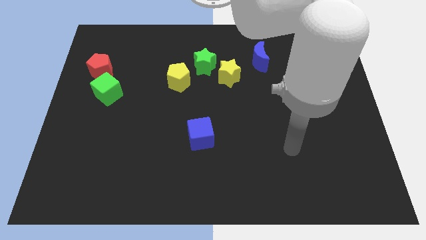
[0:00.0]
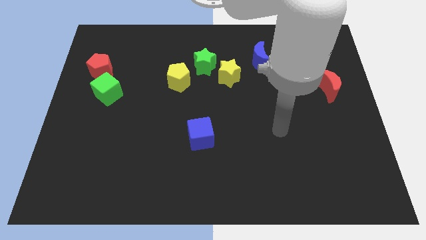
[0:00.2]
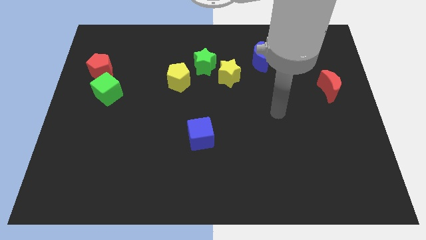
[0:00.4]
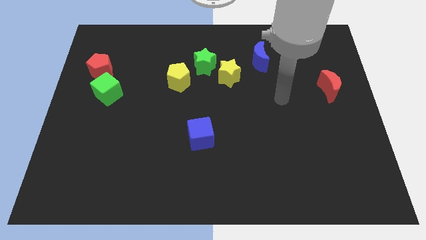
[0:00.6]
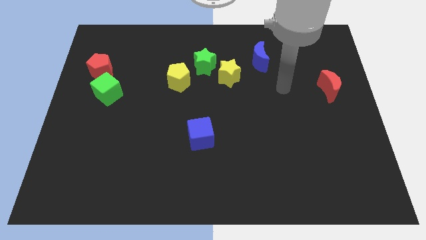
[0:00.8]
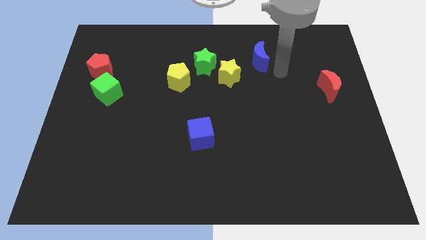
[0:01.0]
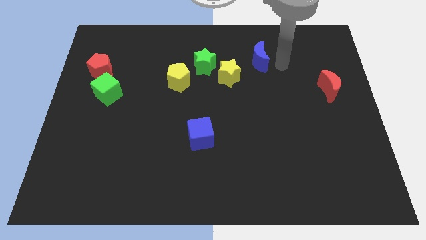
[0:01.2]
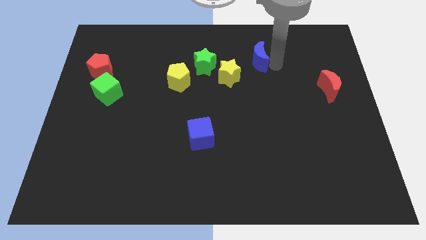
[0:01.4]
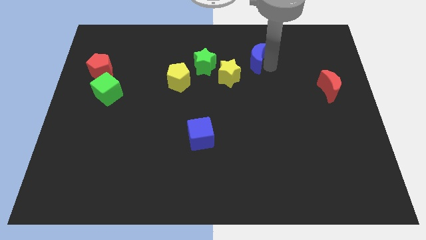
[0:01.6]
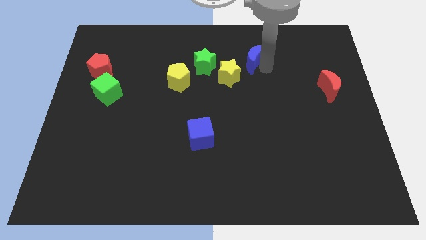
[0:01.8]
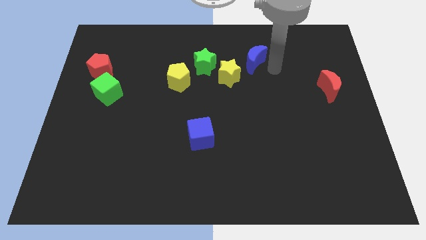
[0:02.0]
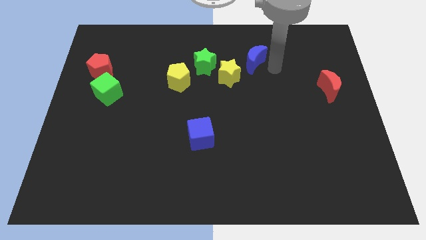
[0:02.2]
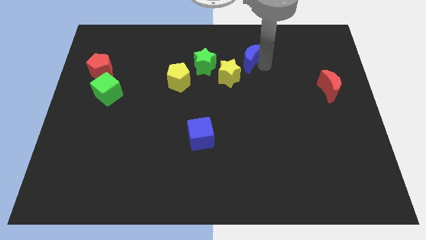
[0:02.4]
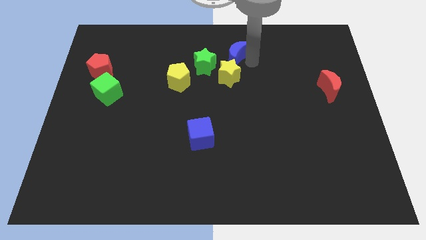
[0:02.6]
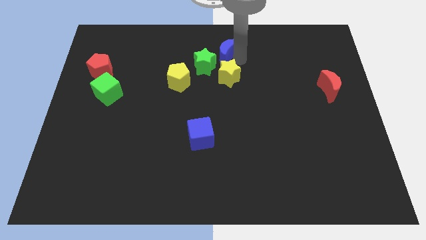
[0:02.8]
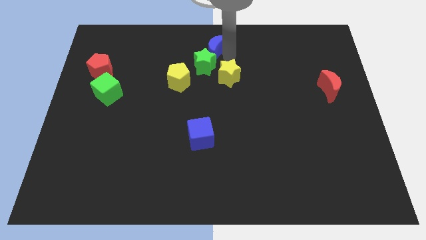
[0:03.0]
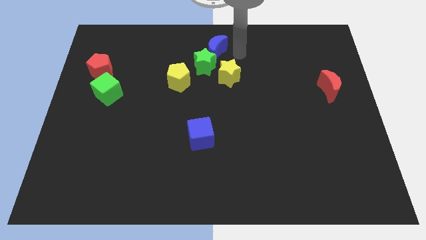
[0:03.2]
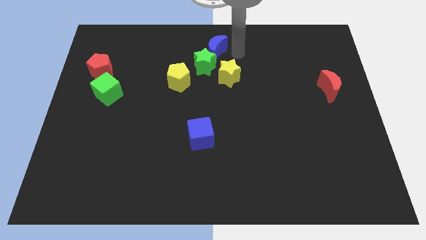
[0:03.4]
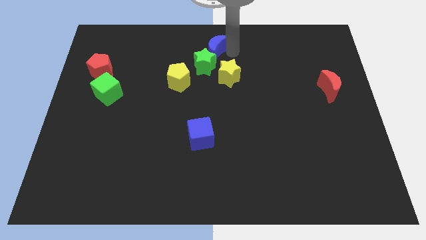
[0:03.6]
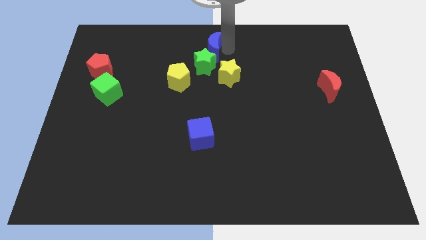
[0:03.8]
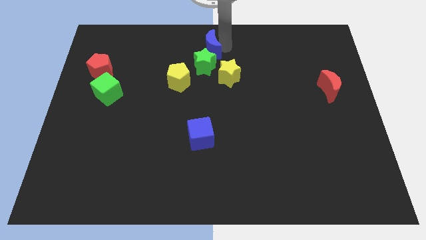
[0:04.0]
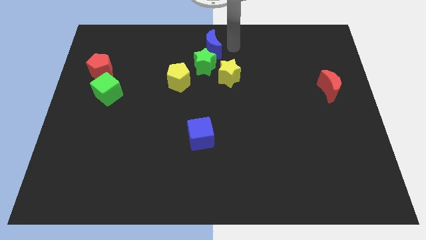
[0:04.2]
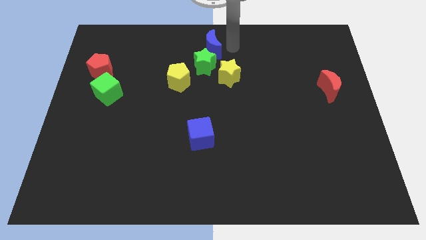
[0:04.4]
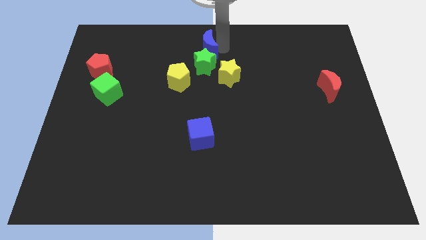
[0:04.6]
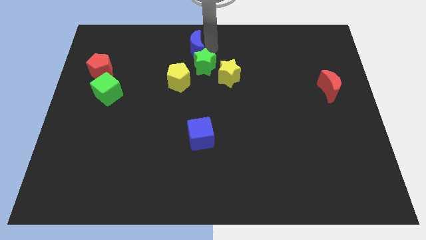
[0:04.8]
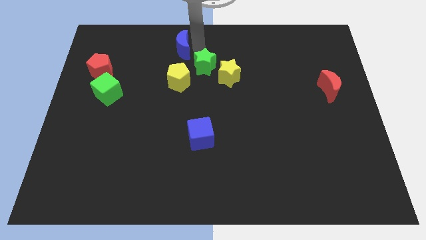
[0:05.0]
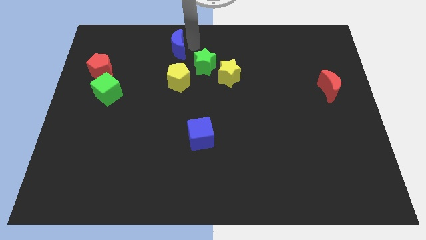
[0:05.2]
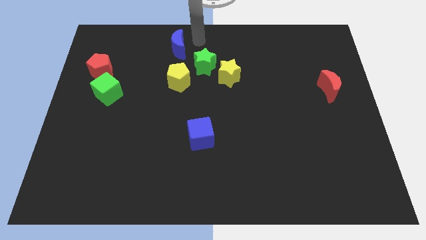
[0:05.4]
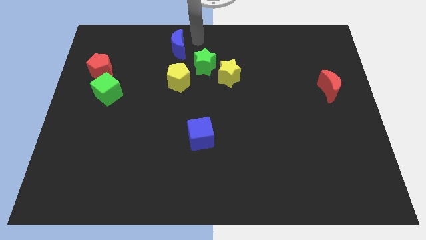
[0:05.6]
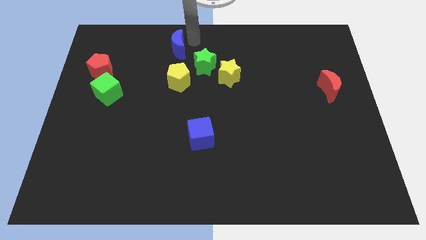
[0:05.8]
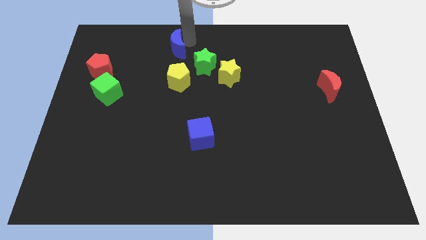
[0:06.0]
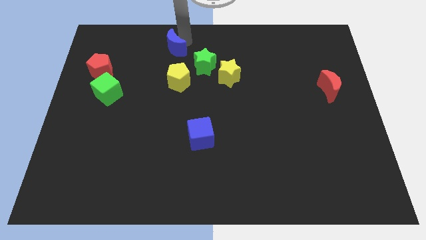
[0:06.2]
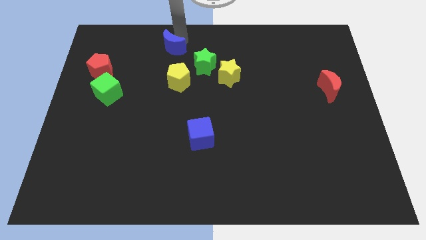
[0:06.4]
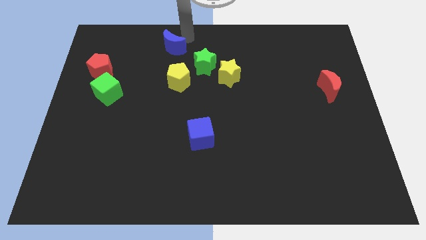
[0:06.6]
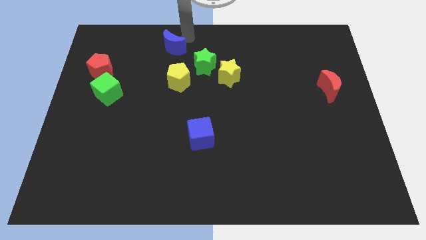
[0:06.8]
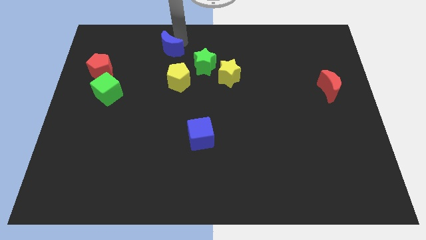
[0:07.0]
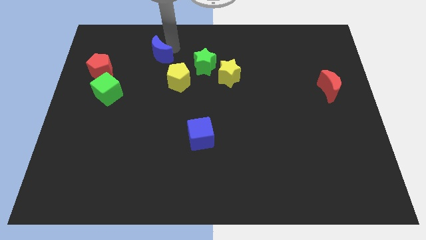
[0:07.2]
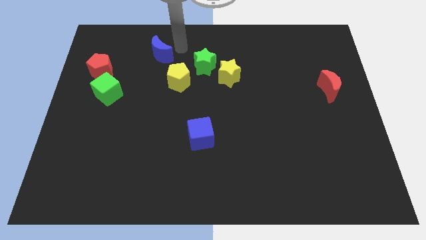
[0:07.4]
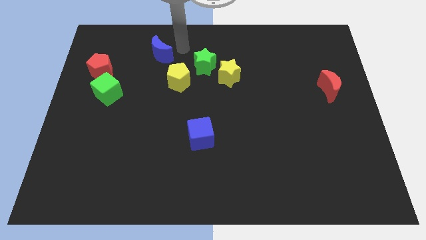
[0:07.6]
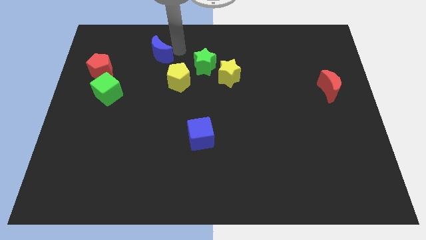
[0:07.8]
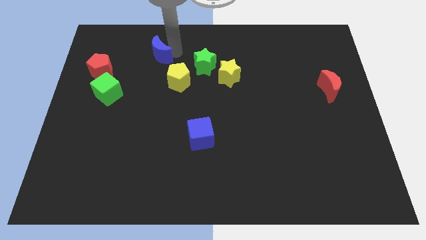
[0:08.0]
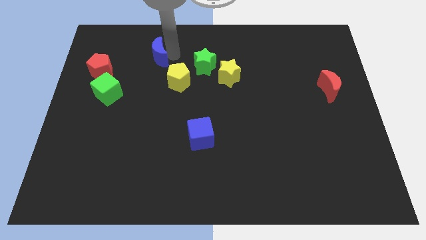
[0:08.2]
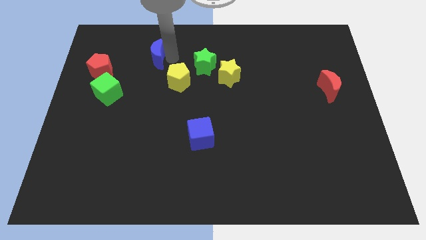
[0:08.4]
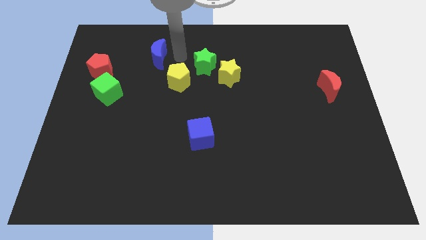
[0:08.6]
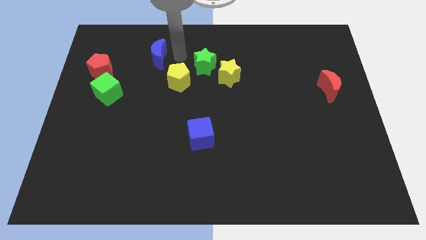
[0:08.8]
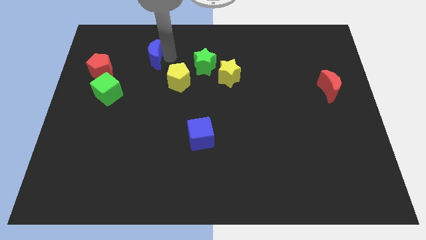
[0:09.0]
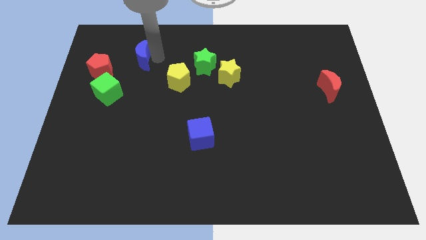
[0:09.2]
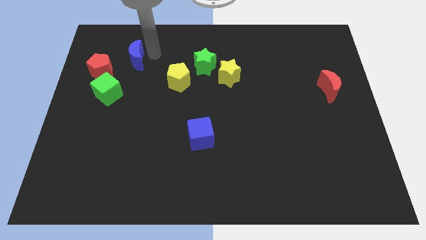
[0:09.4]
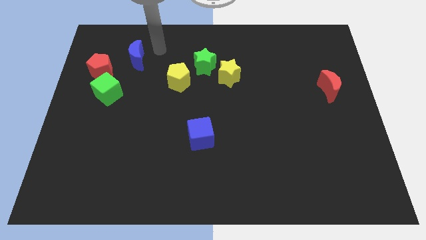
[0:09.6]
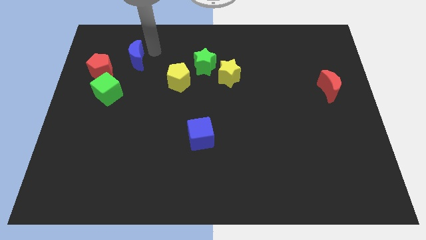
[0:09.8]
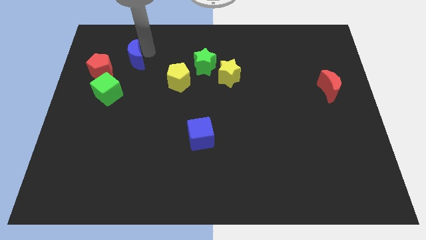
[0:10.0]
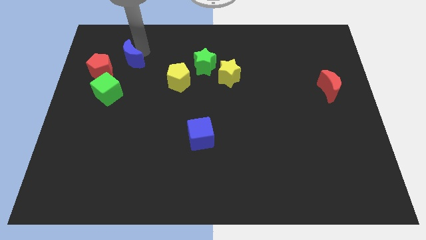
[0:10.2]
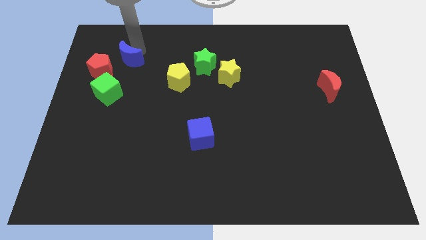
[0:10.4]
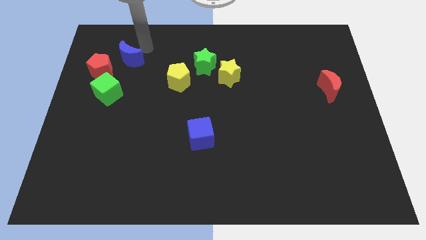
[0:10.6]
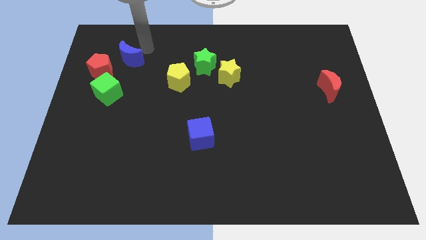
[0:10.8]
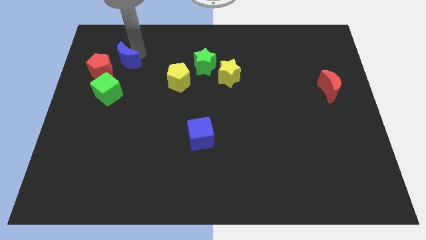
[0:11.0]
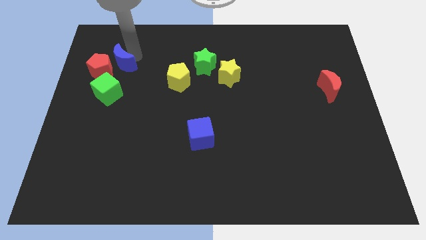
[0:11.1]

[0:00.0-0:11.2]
slide the blue moon close to the red pentagon

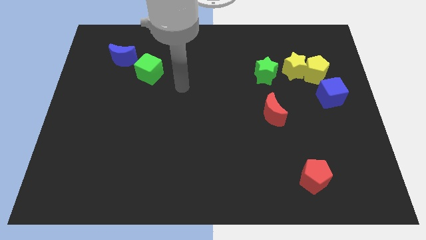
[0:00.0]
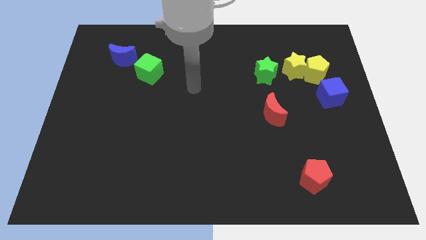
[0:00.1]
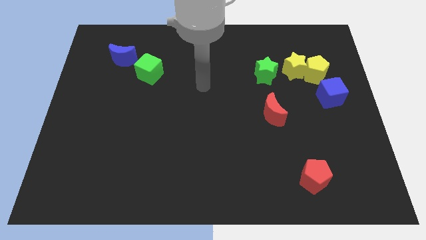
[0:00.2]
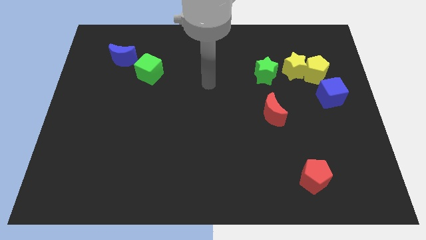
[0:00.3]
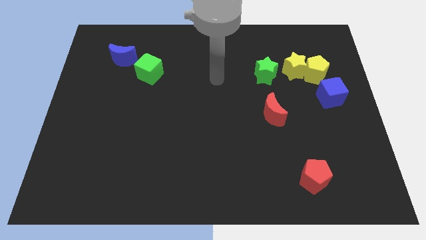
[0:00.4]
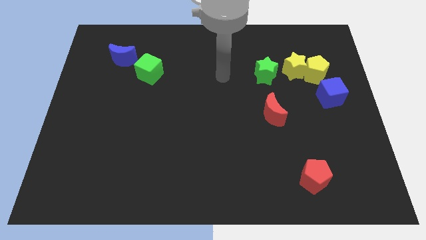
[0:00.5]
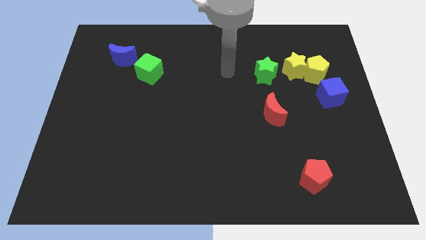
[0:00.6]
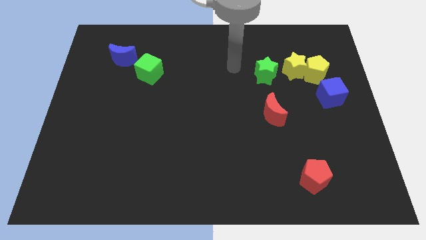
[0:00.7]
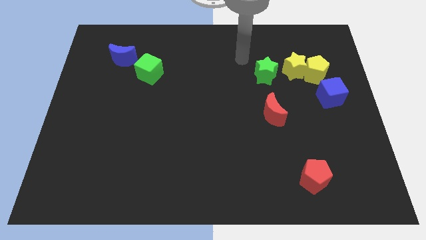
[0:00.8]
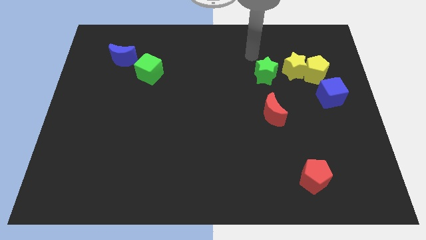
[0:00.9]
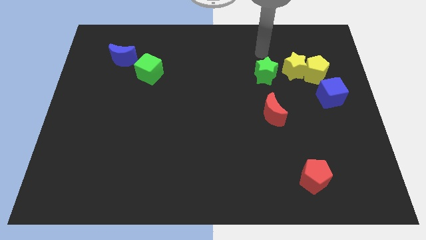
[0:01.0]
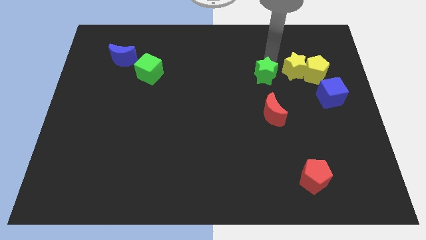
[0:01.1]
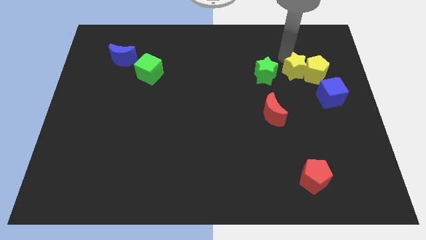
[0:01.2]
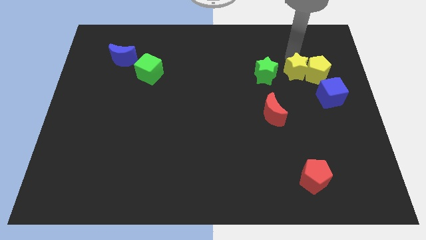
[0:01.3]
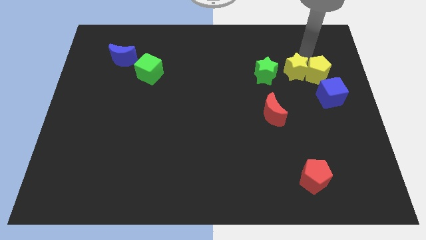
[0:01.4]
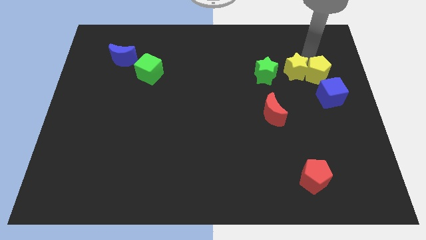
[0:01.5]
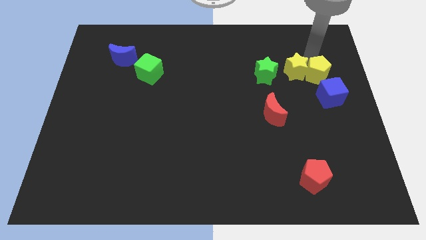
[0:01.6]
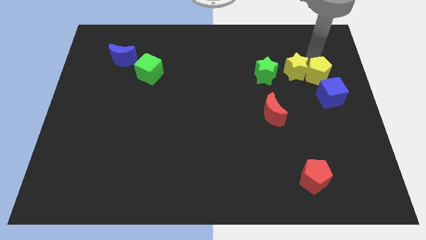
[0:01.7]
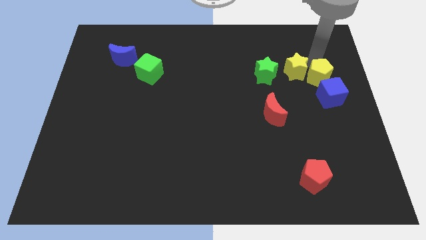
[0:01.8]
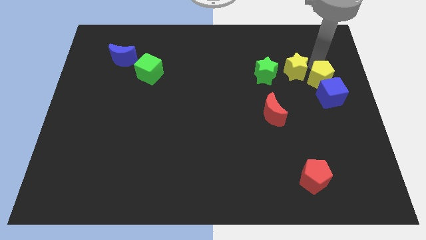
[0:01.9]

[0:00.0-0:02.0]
put the yellow pentagon close to the blue cube
